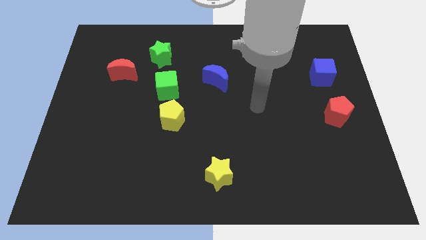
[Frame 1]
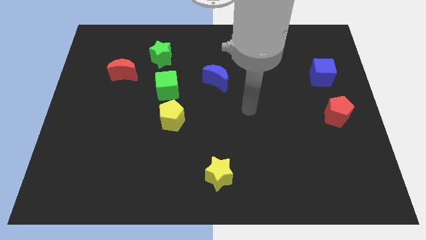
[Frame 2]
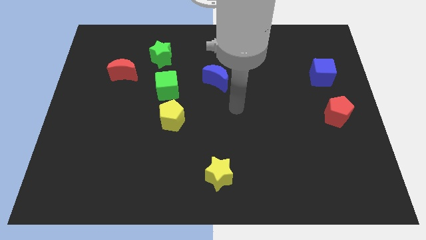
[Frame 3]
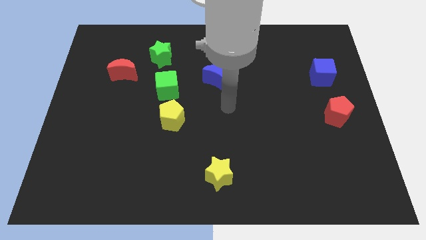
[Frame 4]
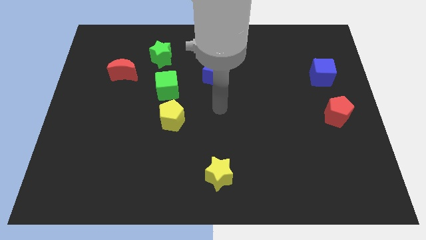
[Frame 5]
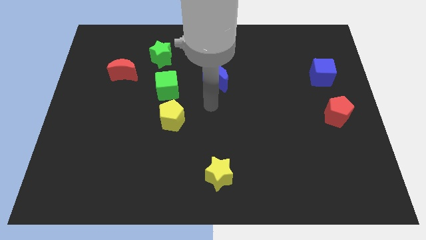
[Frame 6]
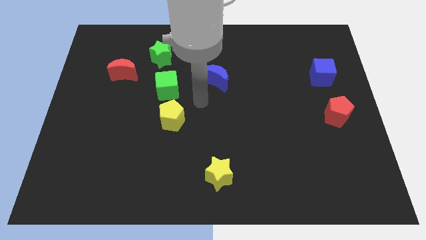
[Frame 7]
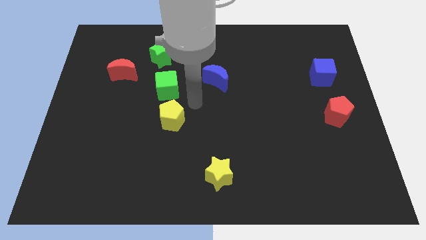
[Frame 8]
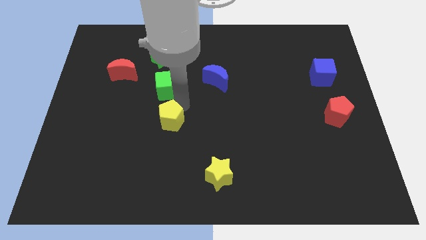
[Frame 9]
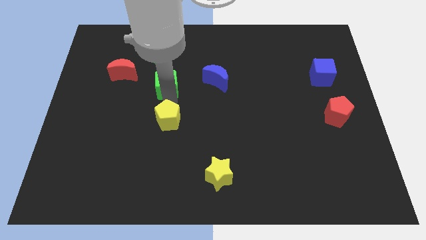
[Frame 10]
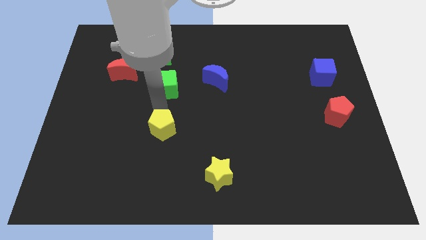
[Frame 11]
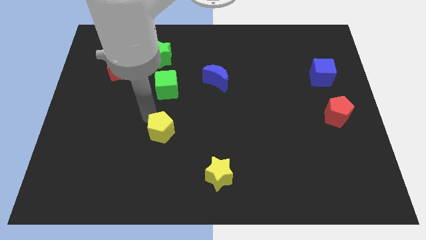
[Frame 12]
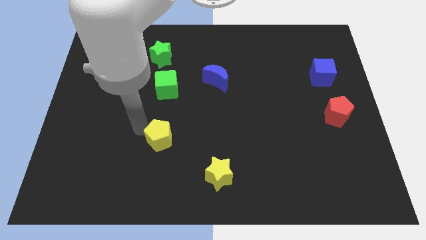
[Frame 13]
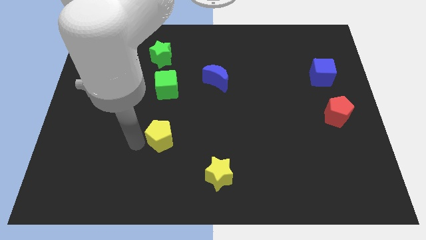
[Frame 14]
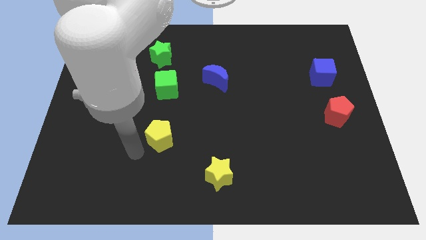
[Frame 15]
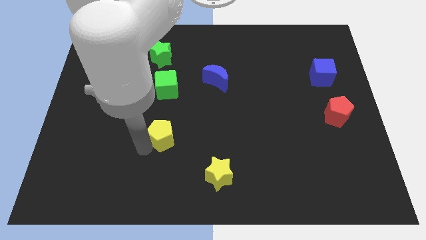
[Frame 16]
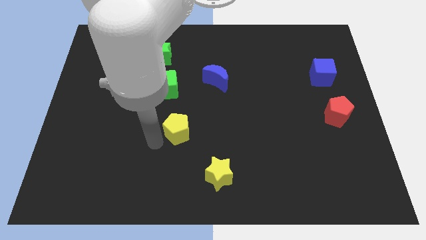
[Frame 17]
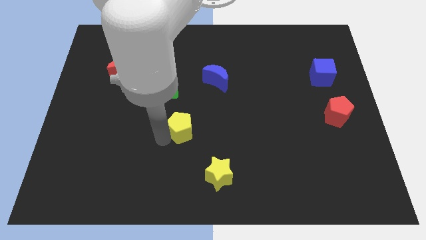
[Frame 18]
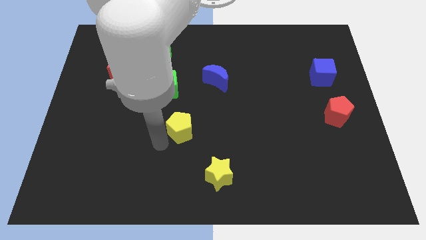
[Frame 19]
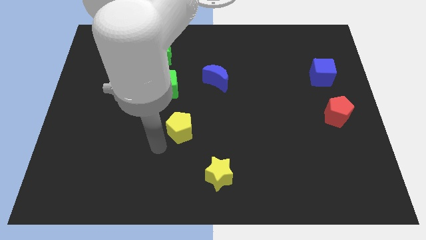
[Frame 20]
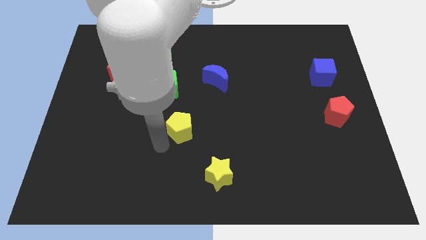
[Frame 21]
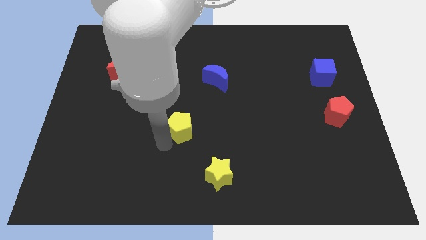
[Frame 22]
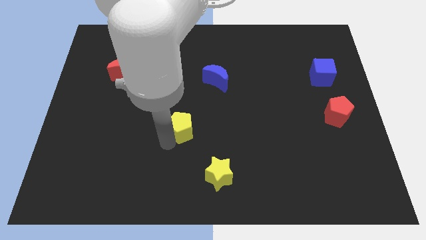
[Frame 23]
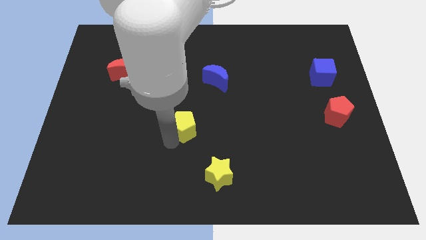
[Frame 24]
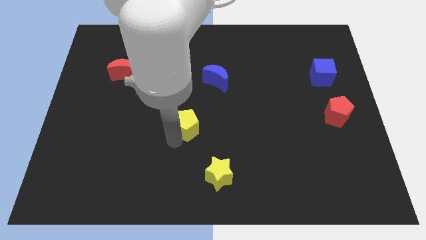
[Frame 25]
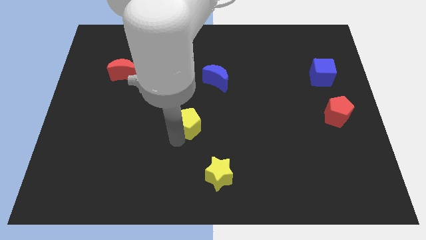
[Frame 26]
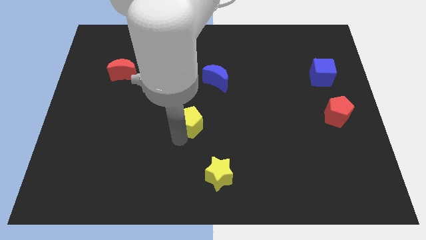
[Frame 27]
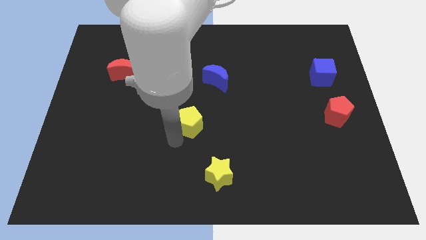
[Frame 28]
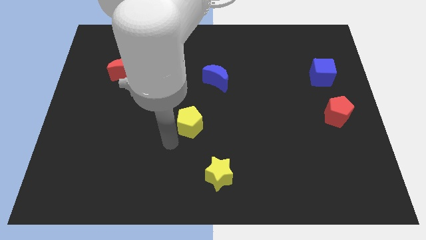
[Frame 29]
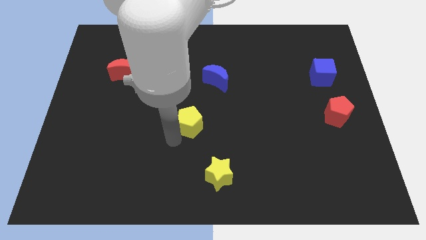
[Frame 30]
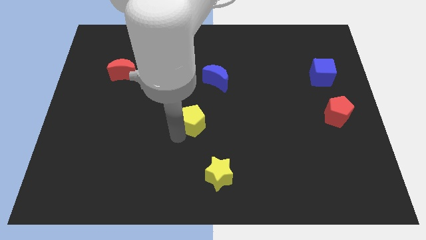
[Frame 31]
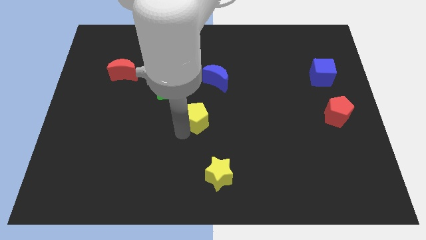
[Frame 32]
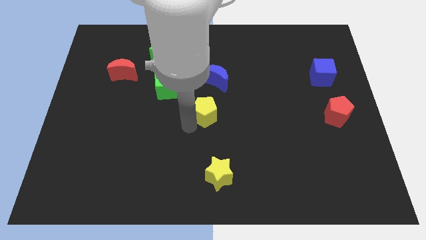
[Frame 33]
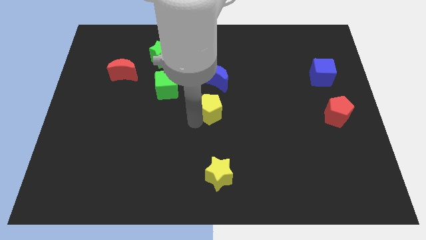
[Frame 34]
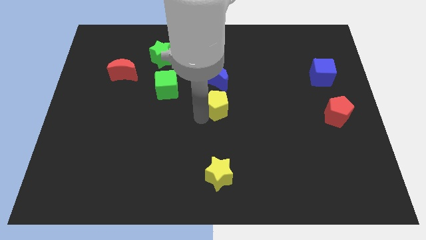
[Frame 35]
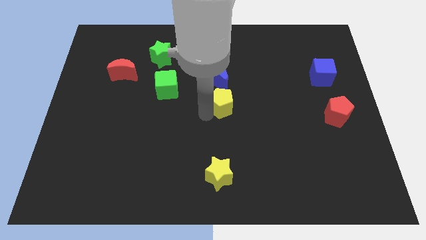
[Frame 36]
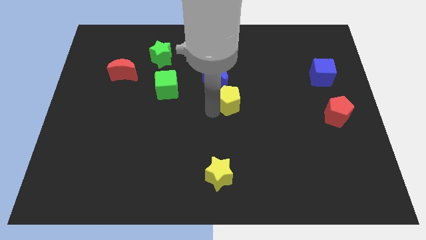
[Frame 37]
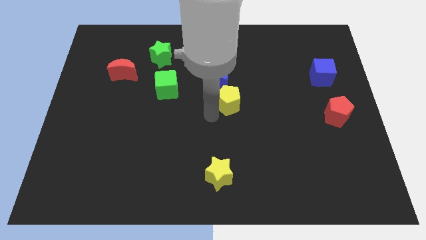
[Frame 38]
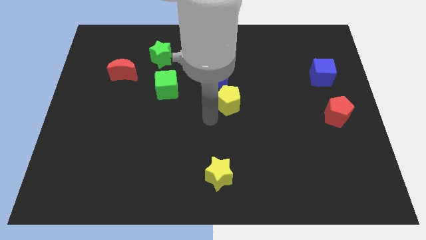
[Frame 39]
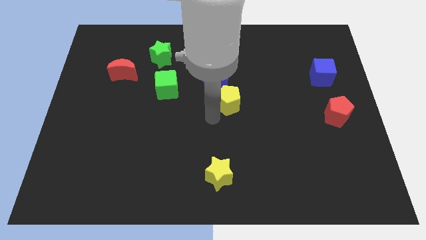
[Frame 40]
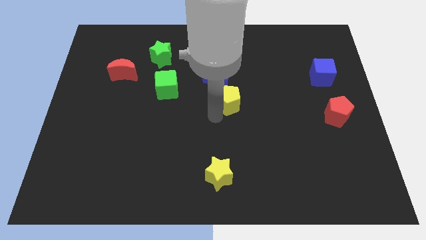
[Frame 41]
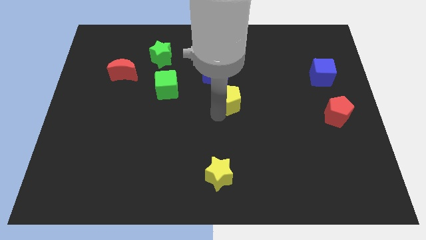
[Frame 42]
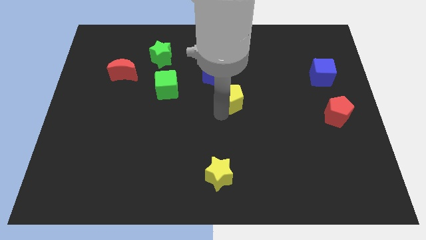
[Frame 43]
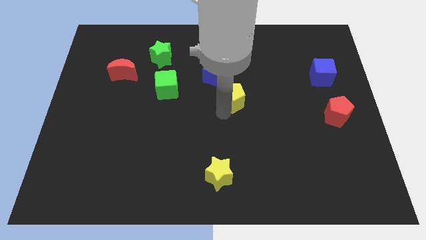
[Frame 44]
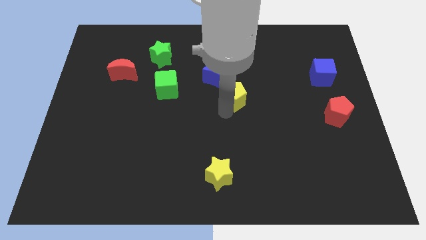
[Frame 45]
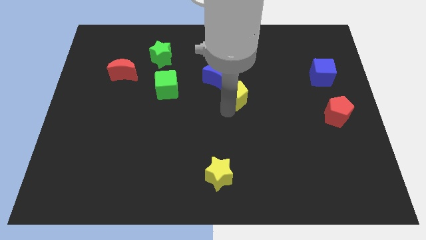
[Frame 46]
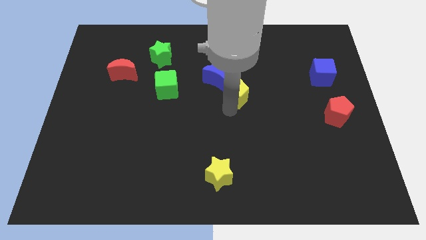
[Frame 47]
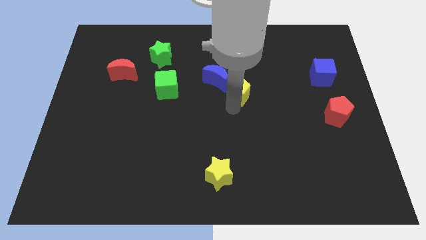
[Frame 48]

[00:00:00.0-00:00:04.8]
push the yellow pentagon to the right side of the blue moon

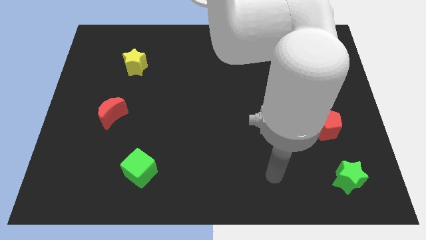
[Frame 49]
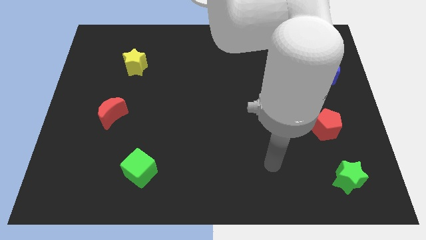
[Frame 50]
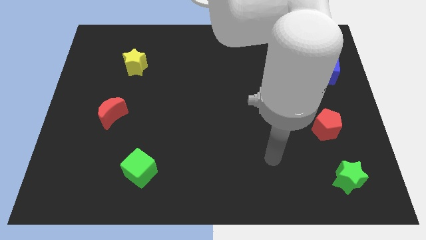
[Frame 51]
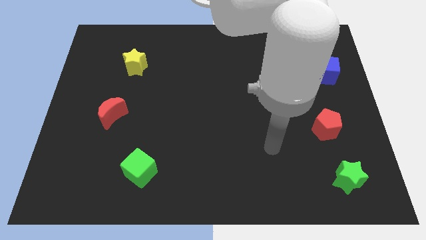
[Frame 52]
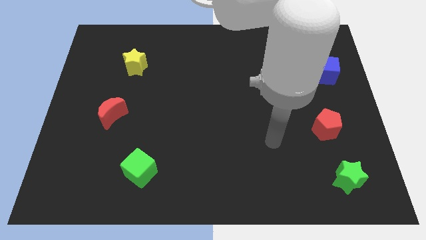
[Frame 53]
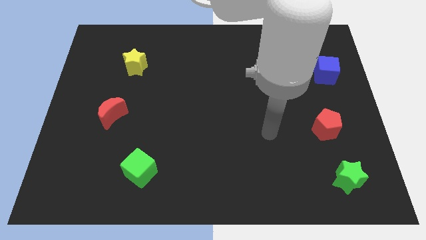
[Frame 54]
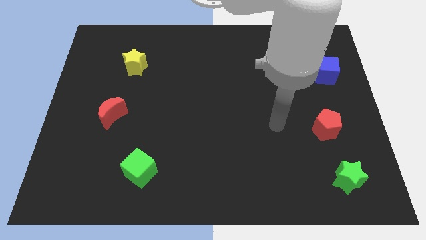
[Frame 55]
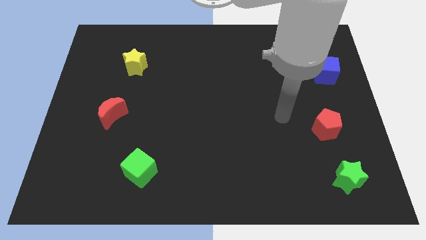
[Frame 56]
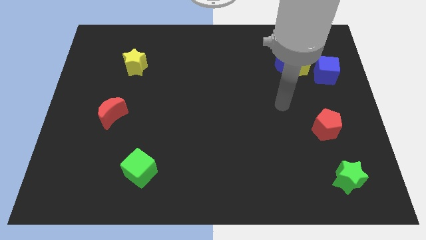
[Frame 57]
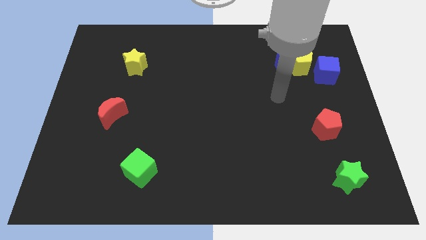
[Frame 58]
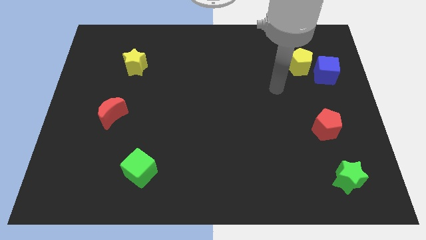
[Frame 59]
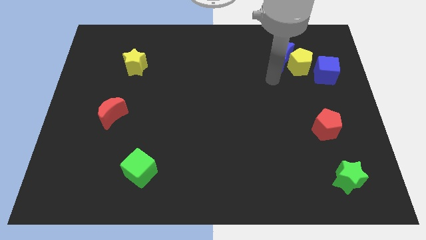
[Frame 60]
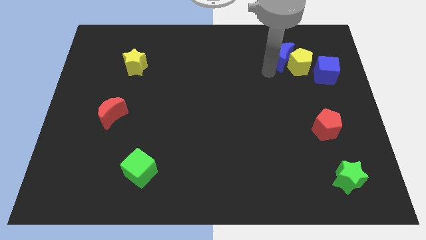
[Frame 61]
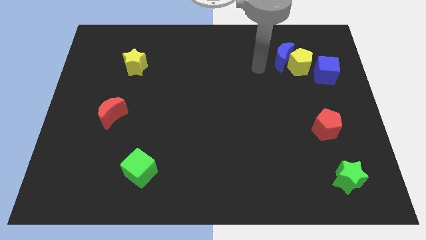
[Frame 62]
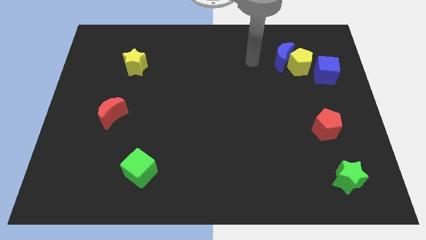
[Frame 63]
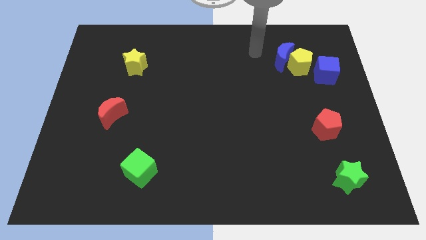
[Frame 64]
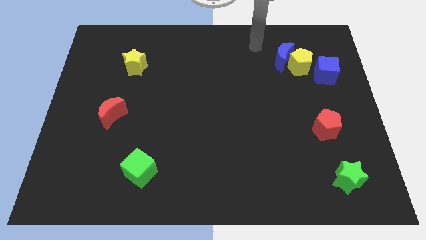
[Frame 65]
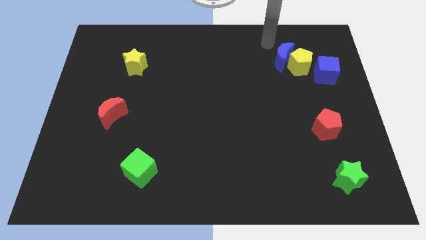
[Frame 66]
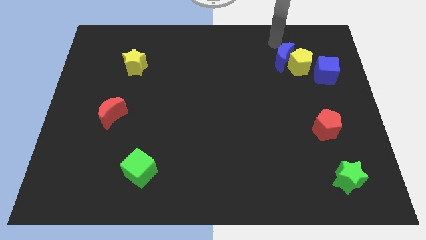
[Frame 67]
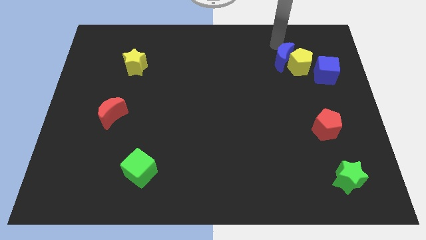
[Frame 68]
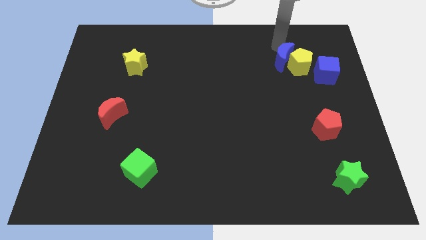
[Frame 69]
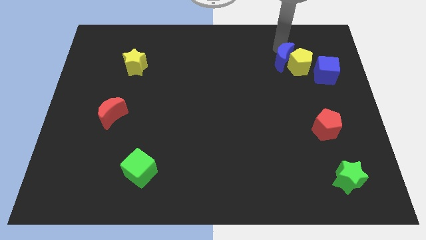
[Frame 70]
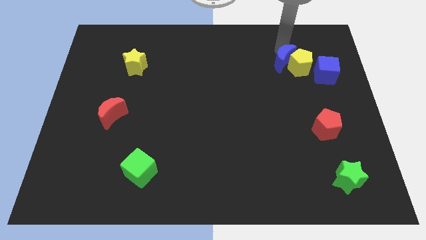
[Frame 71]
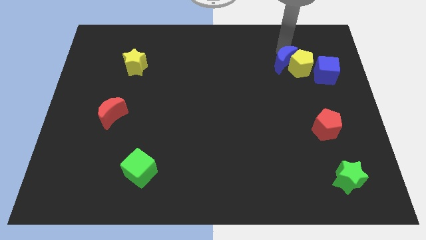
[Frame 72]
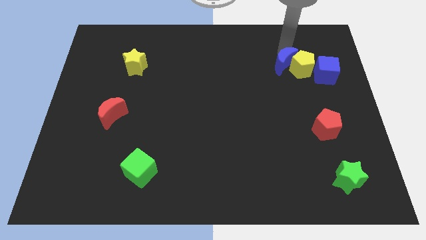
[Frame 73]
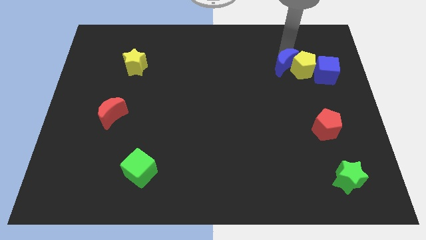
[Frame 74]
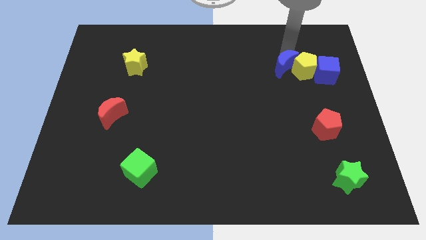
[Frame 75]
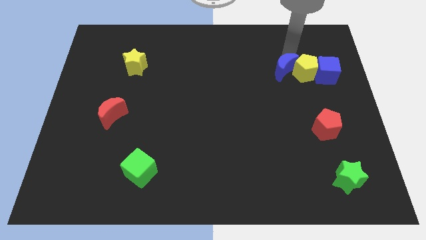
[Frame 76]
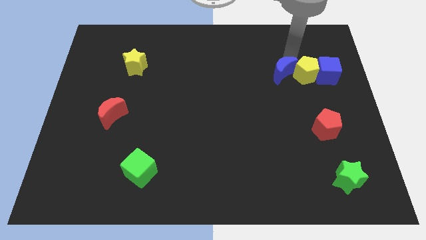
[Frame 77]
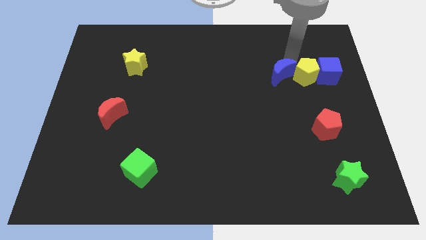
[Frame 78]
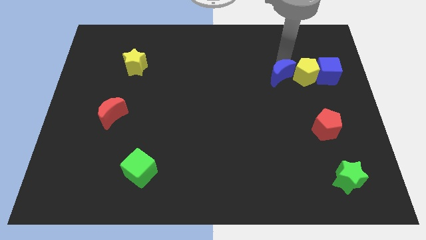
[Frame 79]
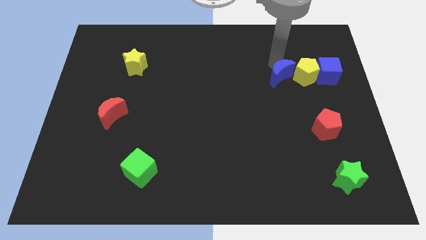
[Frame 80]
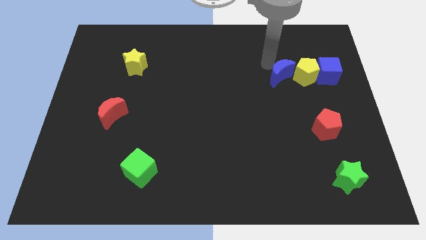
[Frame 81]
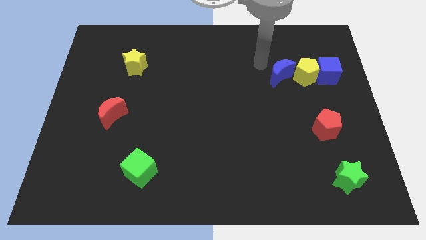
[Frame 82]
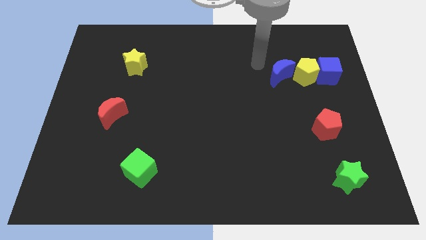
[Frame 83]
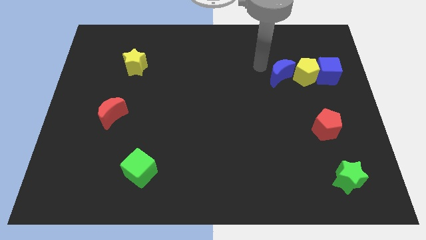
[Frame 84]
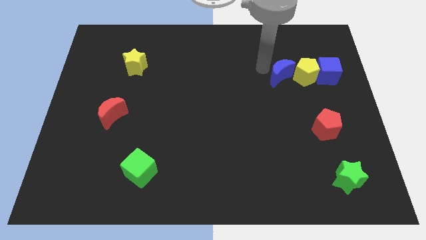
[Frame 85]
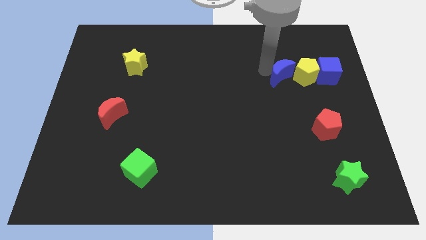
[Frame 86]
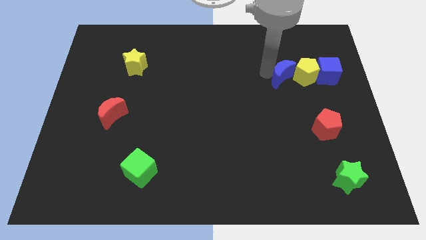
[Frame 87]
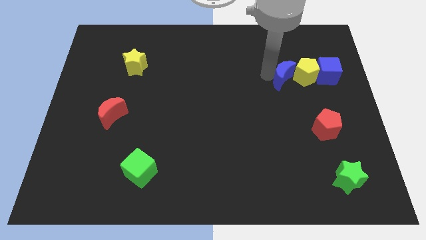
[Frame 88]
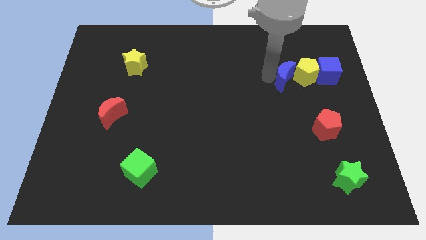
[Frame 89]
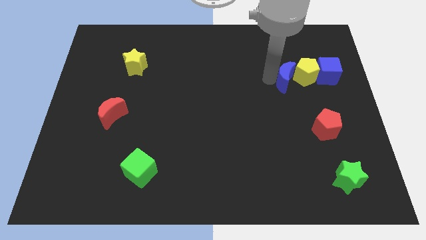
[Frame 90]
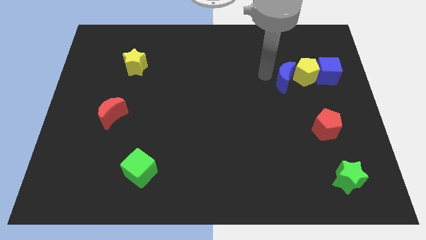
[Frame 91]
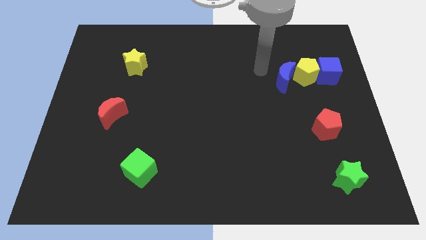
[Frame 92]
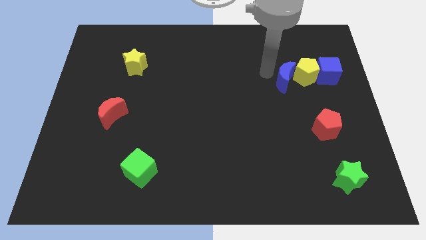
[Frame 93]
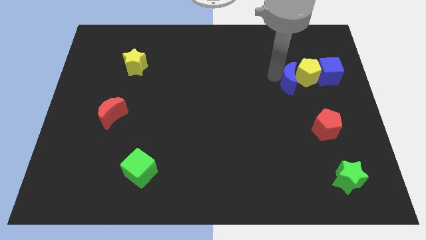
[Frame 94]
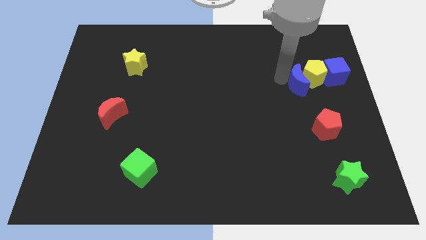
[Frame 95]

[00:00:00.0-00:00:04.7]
move the blue moon to the top side of the red pentagon
